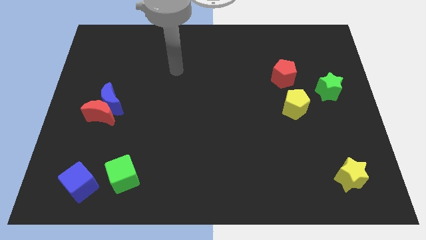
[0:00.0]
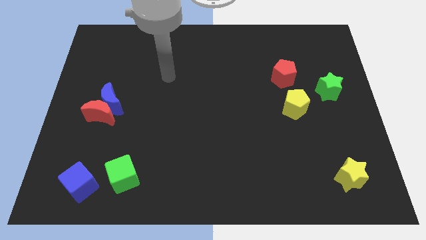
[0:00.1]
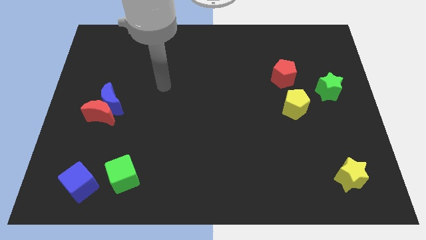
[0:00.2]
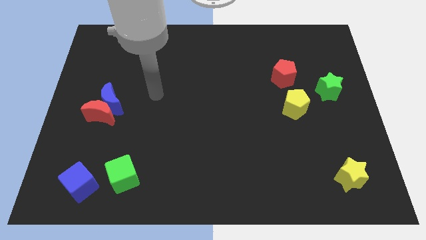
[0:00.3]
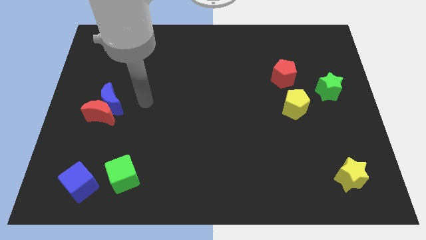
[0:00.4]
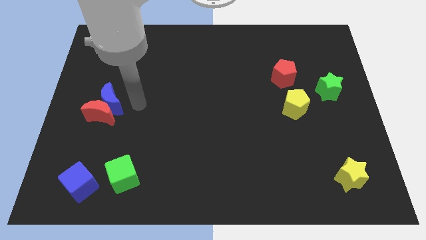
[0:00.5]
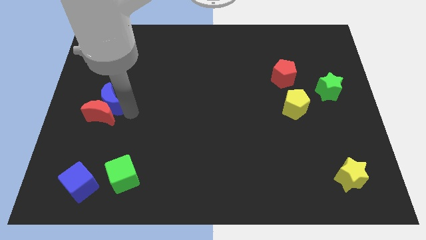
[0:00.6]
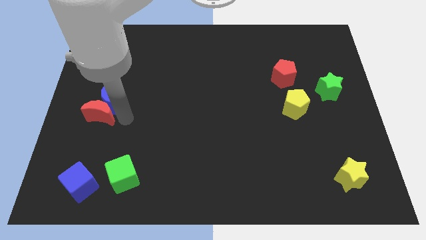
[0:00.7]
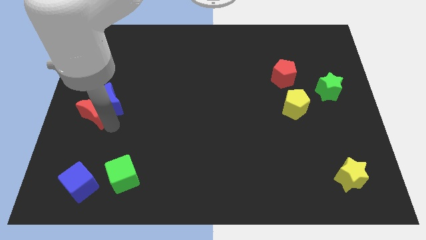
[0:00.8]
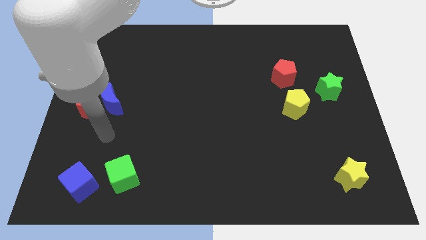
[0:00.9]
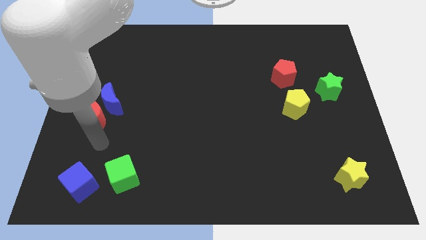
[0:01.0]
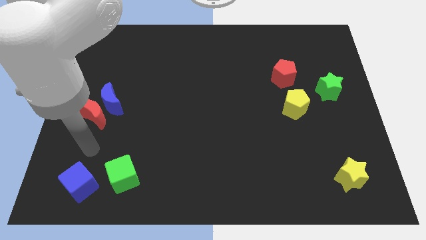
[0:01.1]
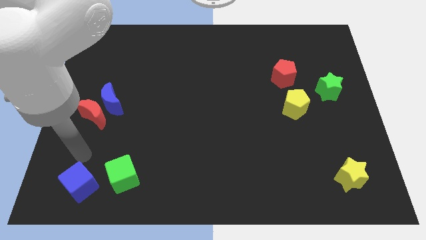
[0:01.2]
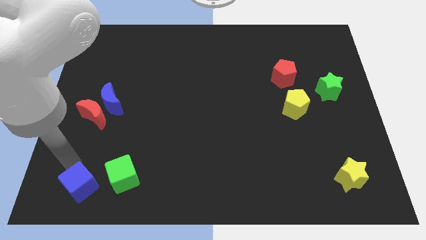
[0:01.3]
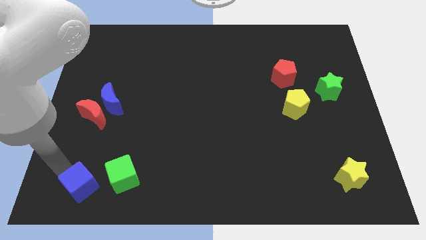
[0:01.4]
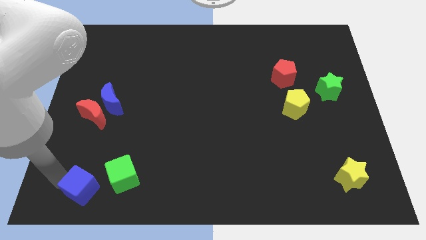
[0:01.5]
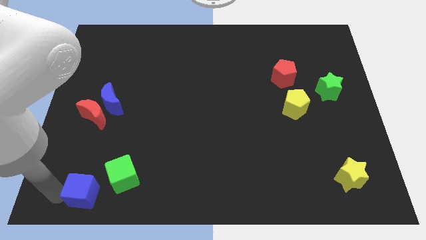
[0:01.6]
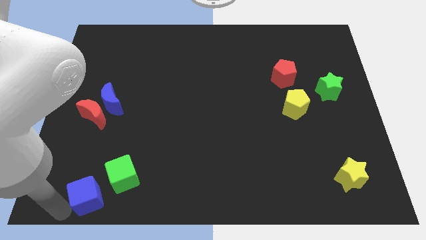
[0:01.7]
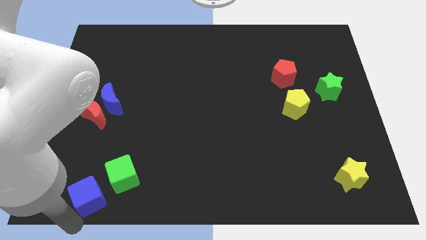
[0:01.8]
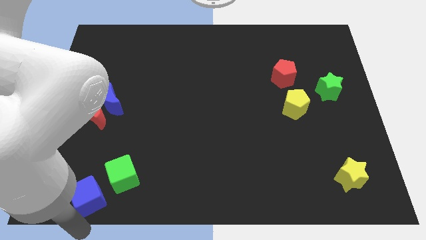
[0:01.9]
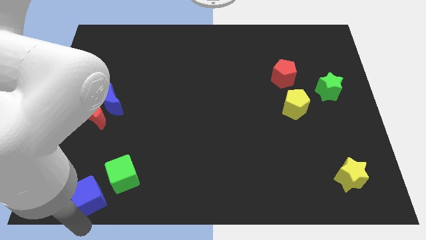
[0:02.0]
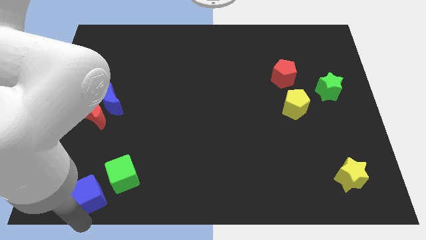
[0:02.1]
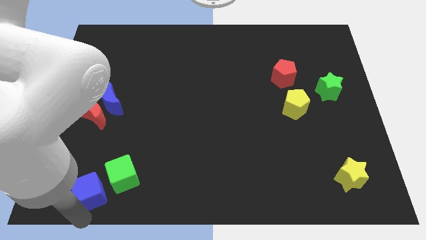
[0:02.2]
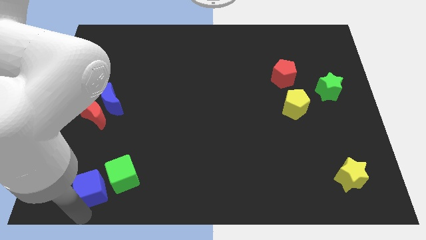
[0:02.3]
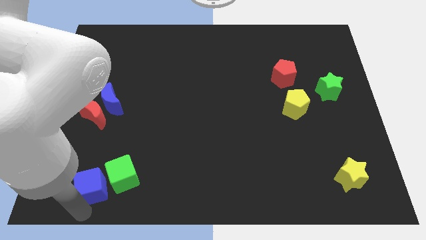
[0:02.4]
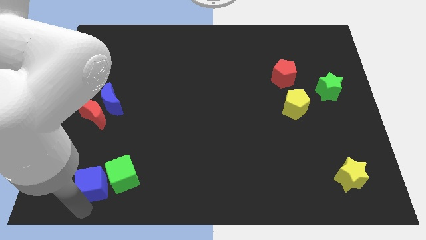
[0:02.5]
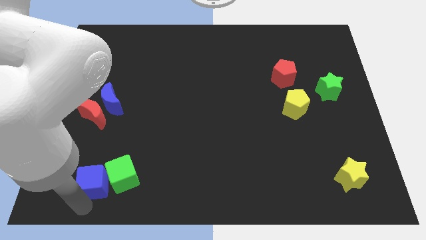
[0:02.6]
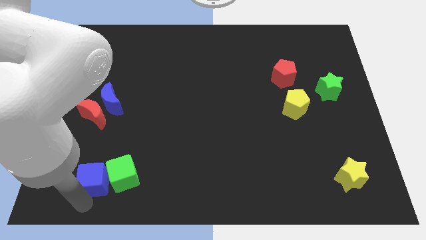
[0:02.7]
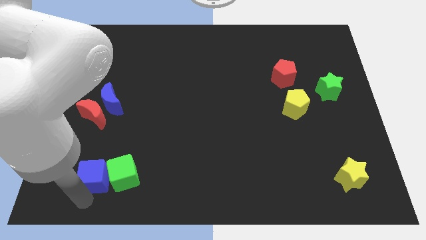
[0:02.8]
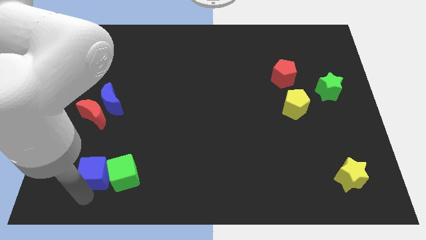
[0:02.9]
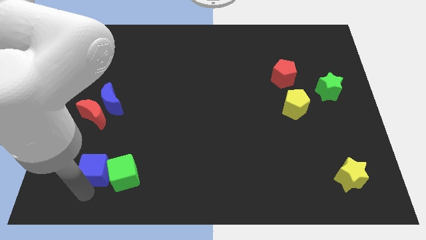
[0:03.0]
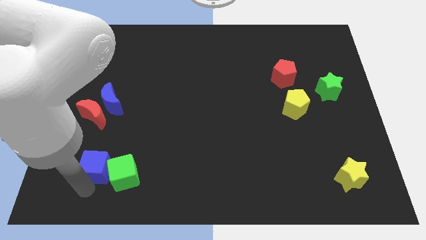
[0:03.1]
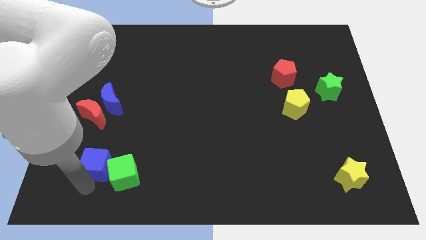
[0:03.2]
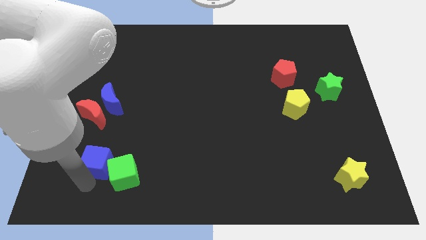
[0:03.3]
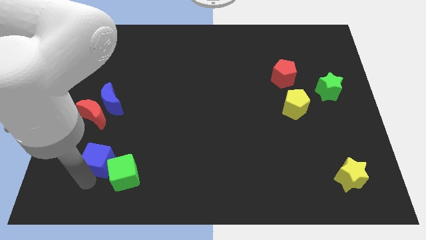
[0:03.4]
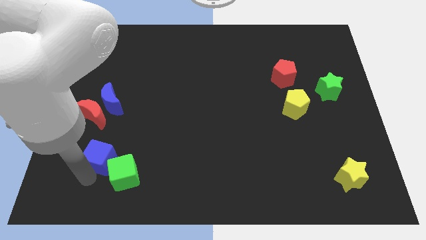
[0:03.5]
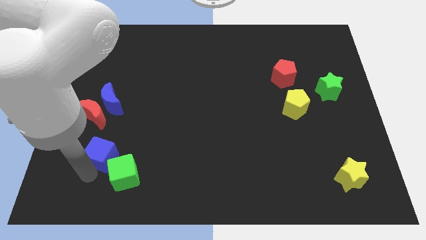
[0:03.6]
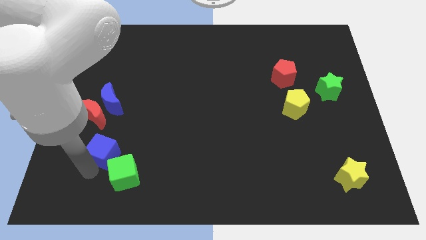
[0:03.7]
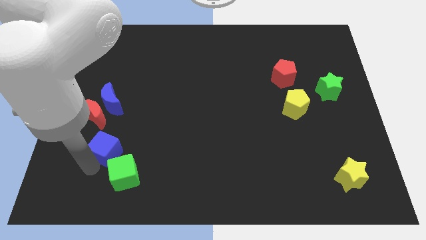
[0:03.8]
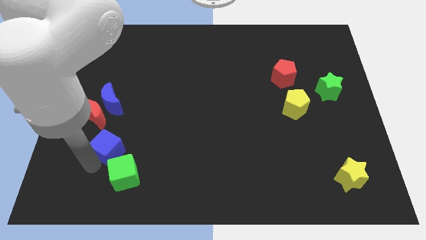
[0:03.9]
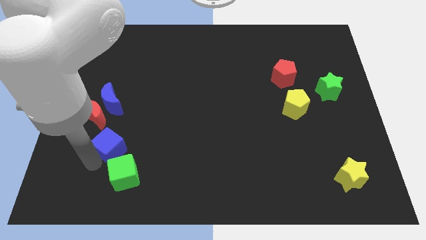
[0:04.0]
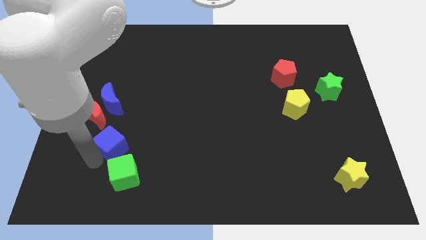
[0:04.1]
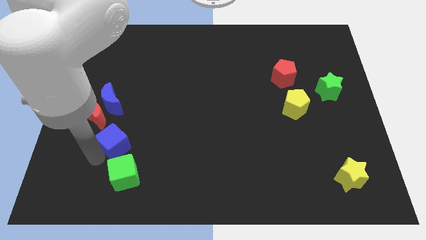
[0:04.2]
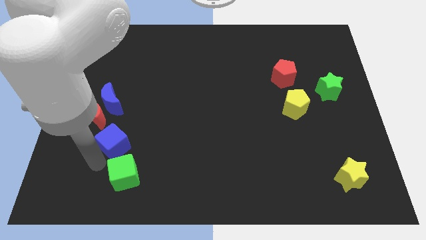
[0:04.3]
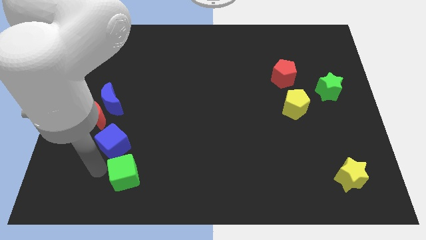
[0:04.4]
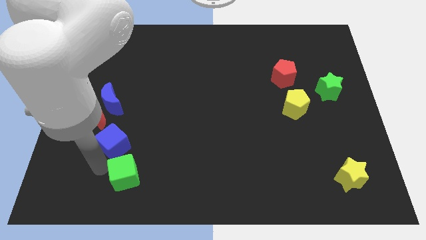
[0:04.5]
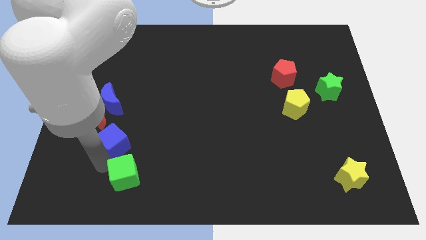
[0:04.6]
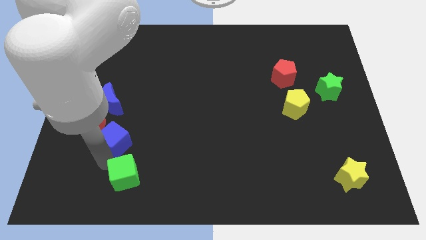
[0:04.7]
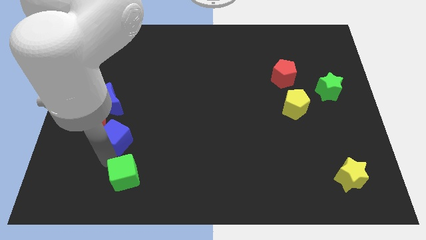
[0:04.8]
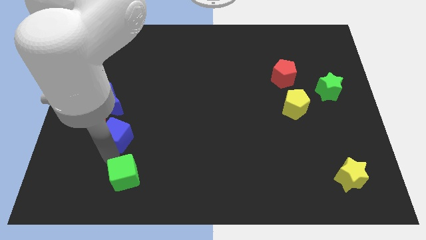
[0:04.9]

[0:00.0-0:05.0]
put the blue cube diagonally down and to the right of the blue moon

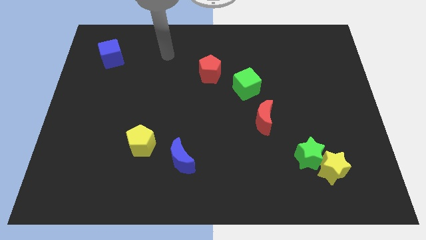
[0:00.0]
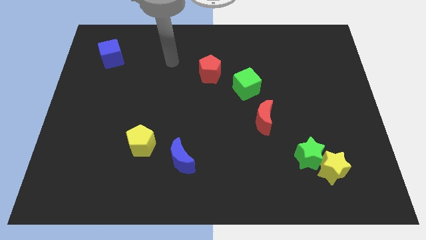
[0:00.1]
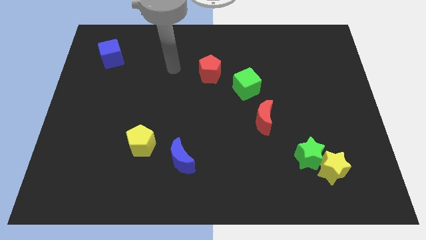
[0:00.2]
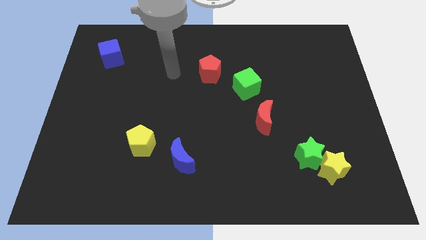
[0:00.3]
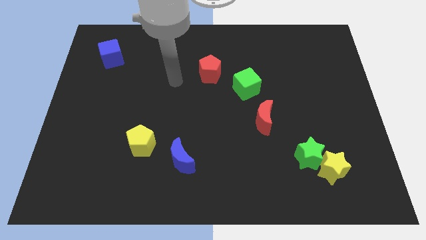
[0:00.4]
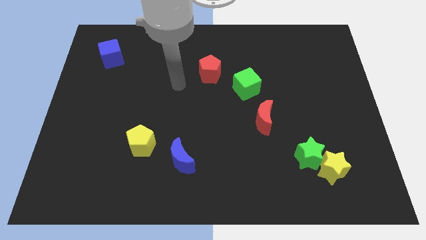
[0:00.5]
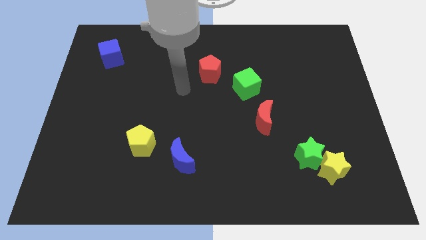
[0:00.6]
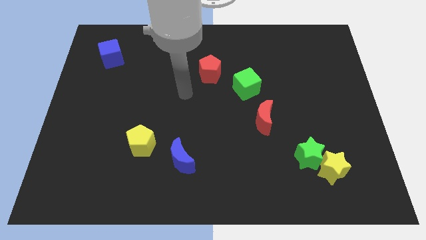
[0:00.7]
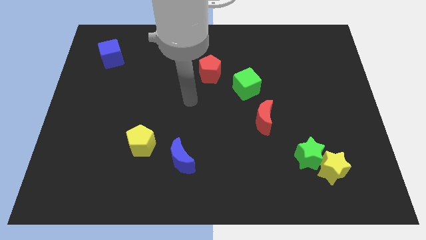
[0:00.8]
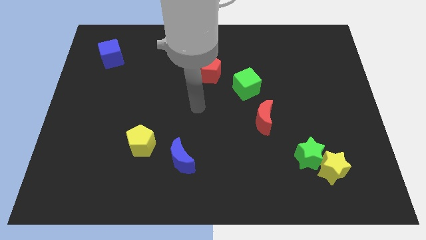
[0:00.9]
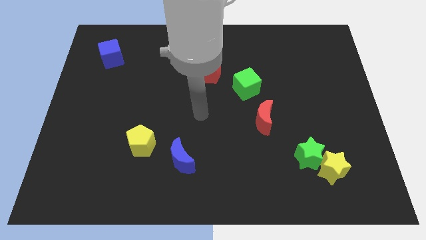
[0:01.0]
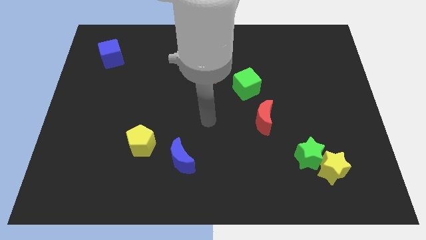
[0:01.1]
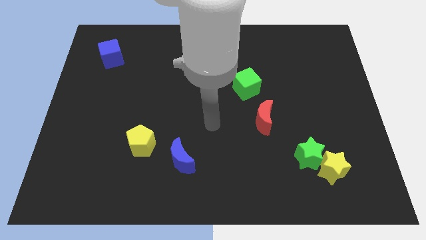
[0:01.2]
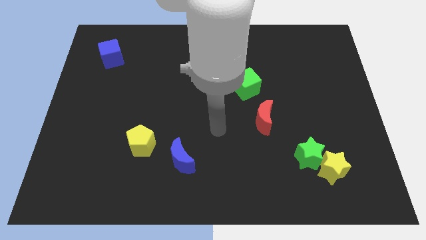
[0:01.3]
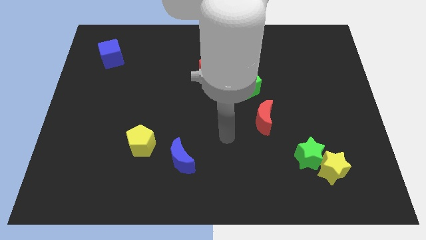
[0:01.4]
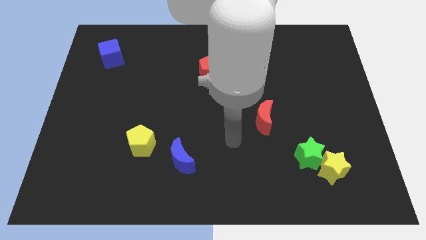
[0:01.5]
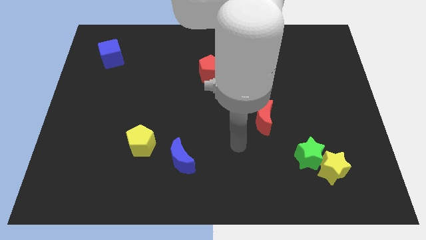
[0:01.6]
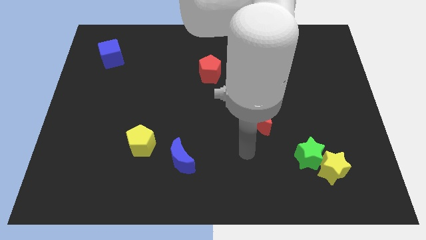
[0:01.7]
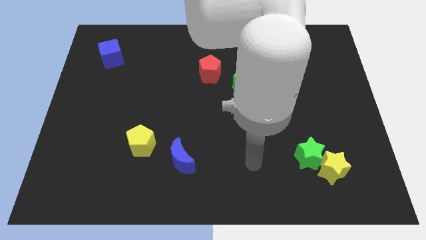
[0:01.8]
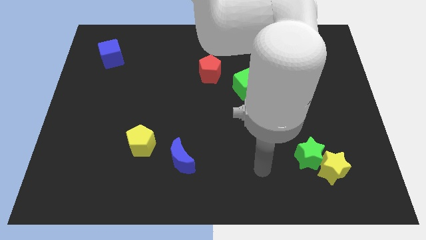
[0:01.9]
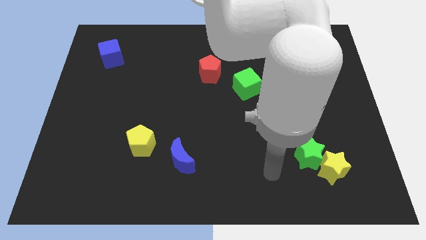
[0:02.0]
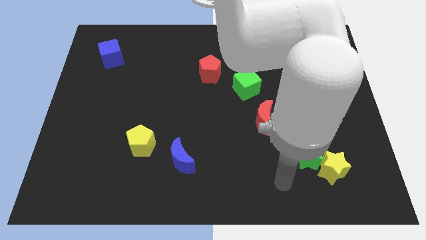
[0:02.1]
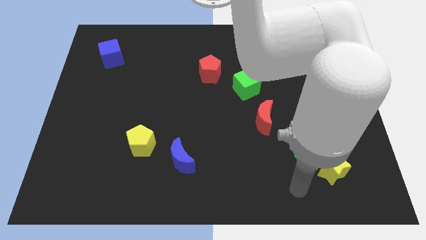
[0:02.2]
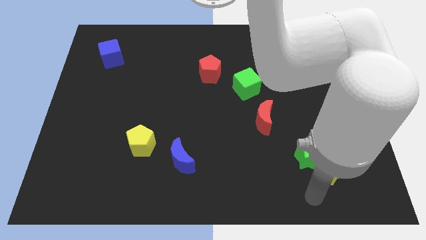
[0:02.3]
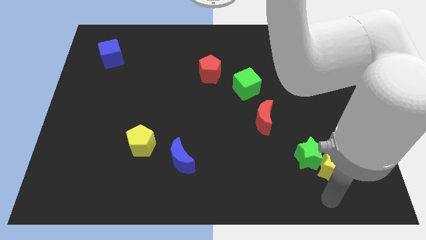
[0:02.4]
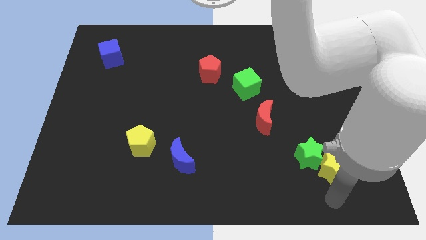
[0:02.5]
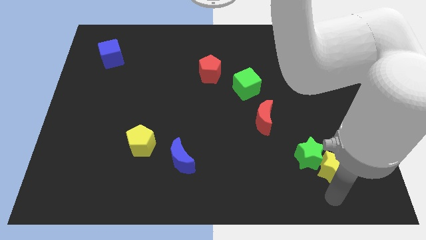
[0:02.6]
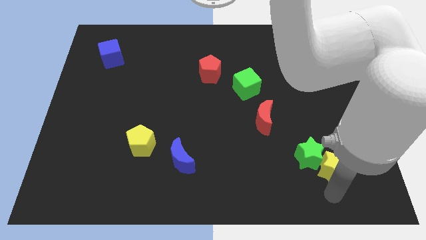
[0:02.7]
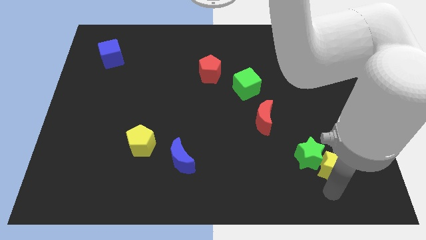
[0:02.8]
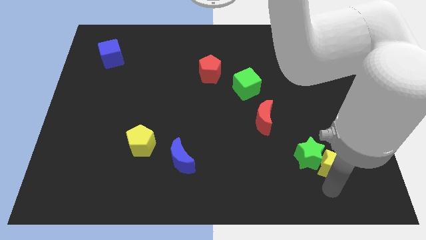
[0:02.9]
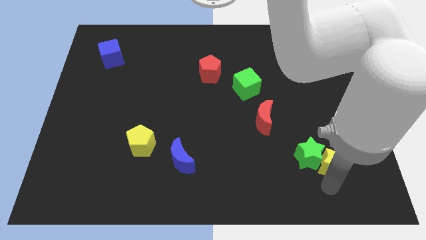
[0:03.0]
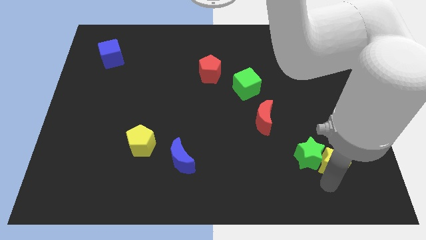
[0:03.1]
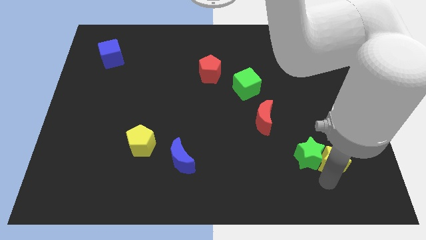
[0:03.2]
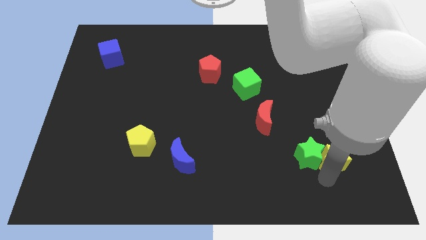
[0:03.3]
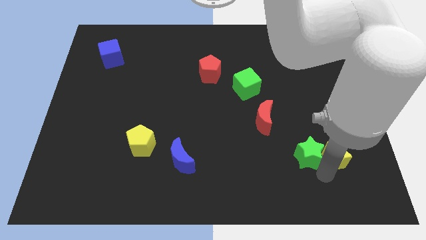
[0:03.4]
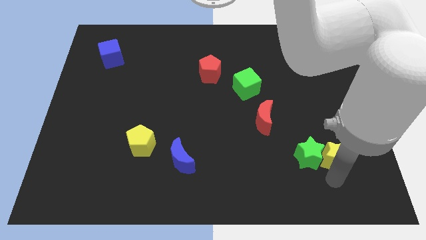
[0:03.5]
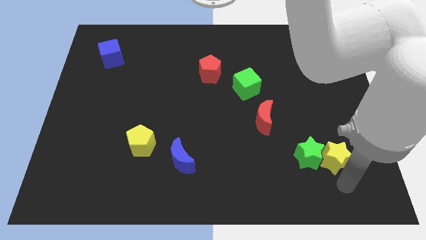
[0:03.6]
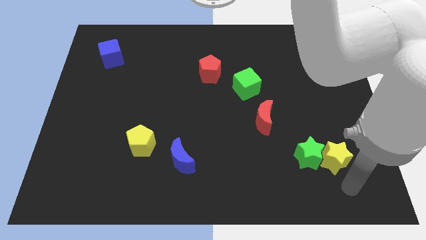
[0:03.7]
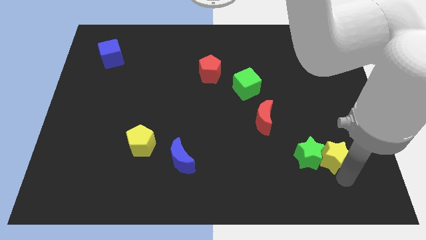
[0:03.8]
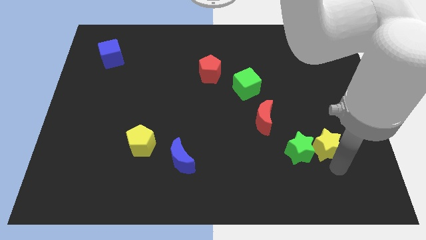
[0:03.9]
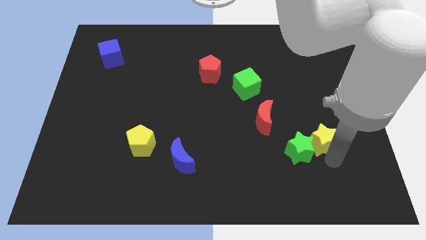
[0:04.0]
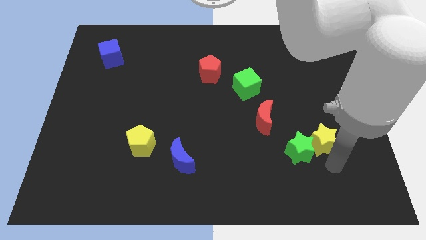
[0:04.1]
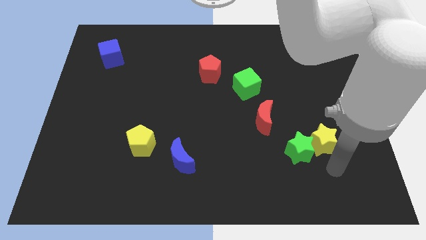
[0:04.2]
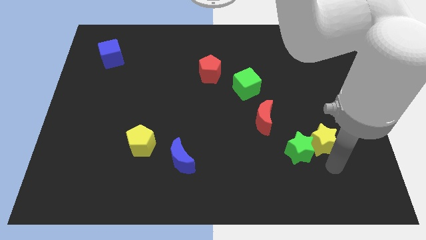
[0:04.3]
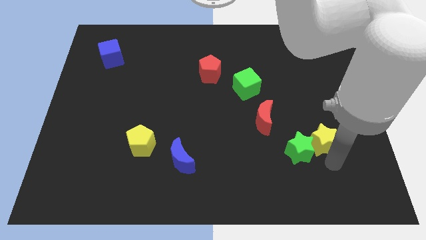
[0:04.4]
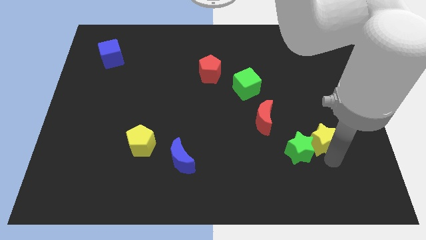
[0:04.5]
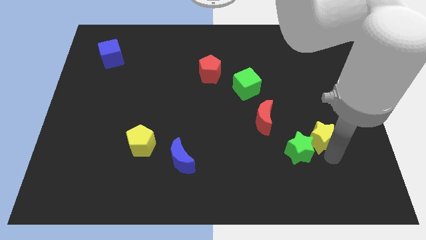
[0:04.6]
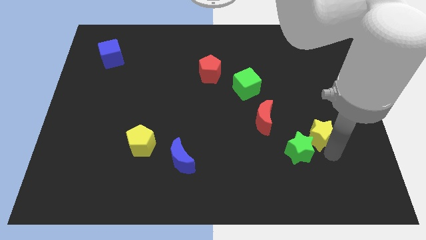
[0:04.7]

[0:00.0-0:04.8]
push the yellow star just right of the red moon
